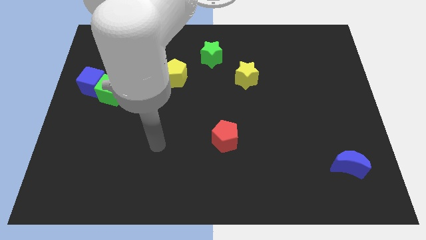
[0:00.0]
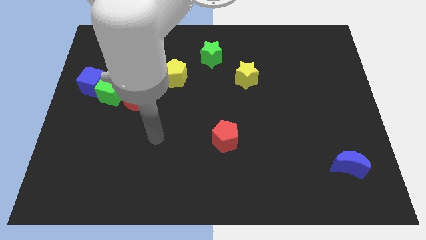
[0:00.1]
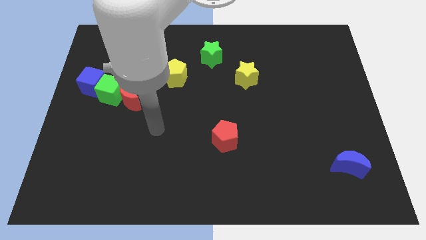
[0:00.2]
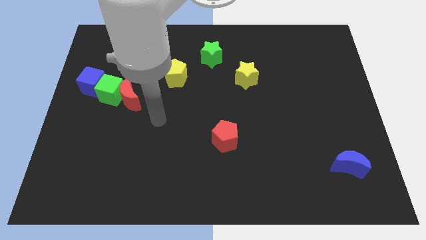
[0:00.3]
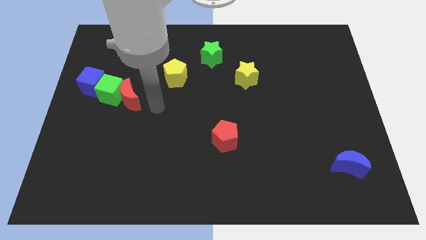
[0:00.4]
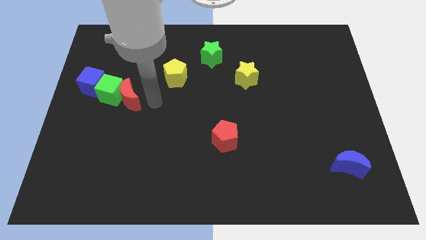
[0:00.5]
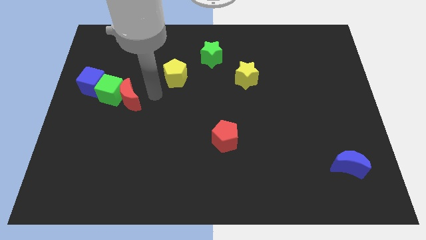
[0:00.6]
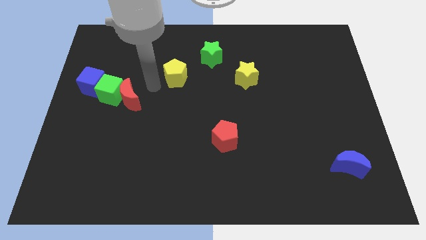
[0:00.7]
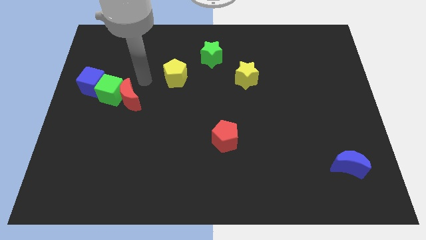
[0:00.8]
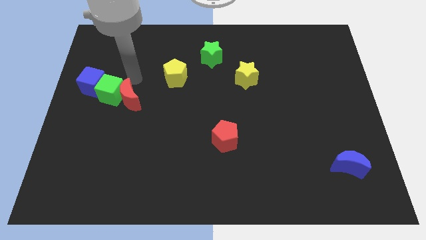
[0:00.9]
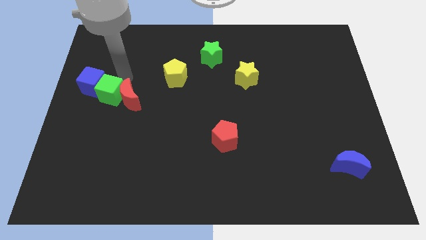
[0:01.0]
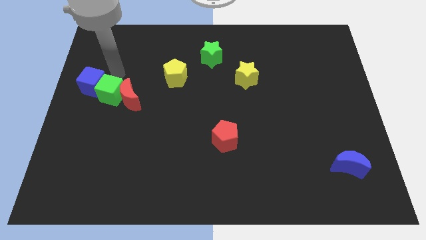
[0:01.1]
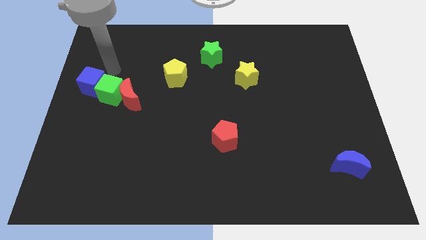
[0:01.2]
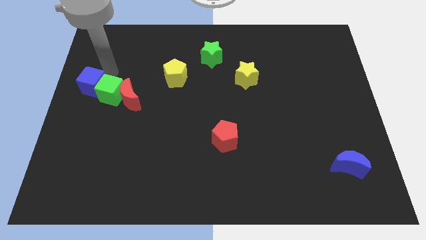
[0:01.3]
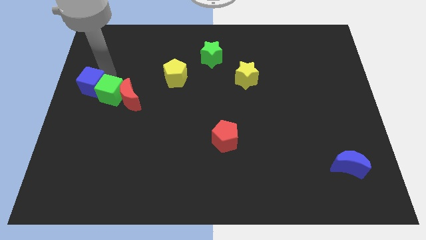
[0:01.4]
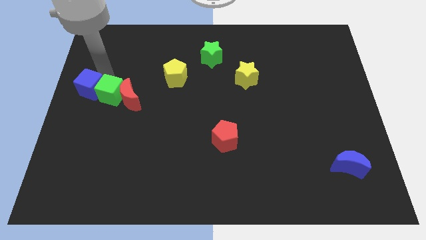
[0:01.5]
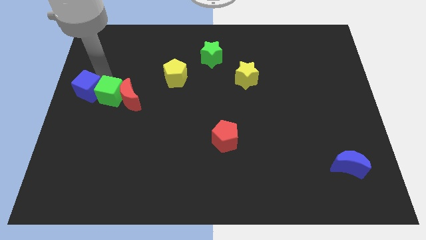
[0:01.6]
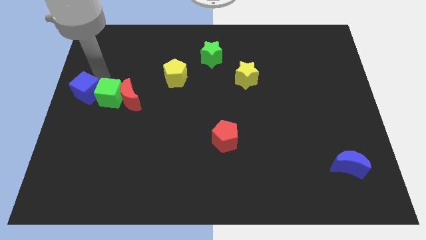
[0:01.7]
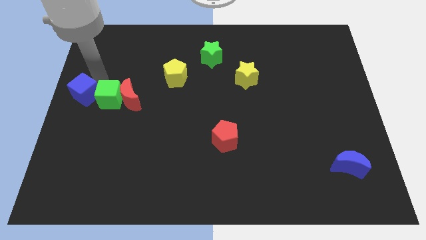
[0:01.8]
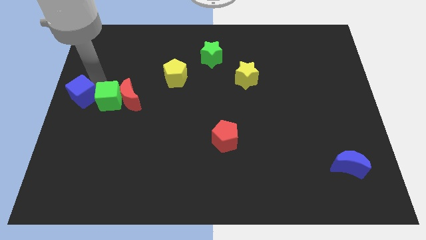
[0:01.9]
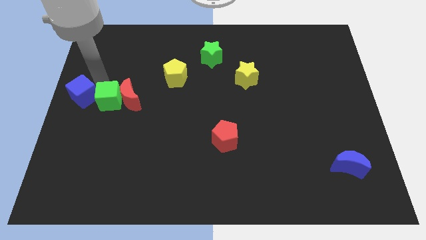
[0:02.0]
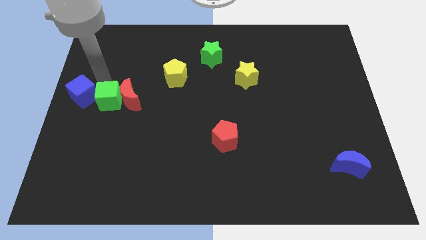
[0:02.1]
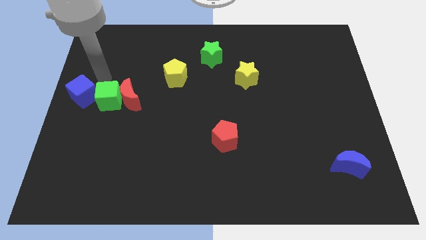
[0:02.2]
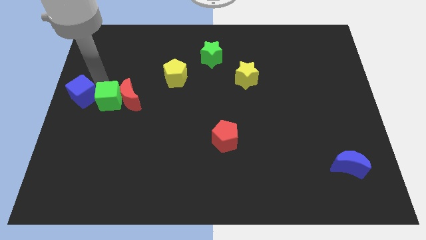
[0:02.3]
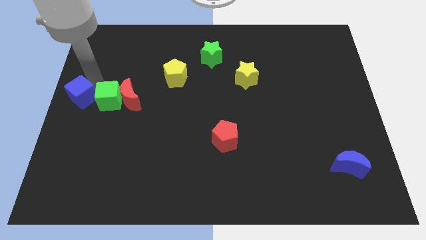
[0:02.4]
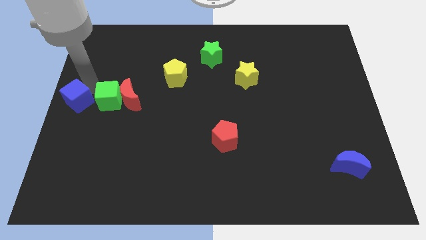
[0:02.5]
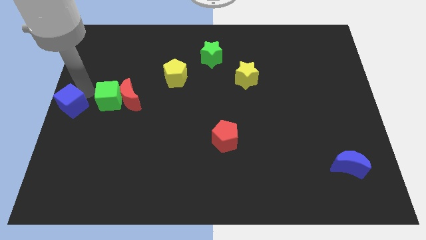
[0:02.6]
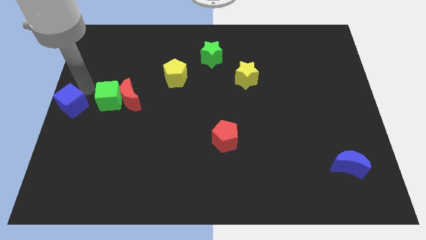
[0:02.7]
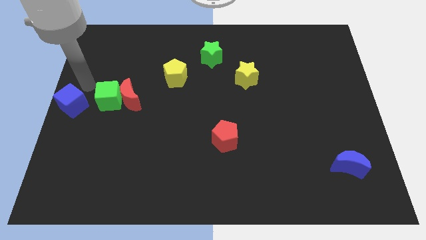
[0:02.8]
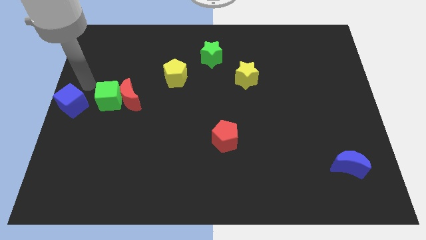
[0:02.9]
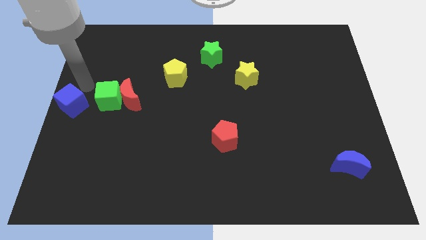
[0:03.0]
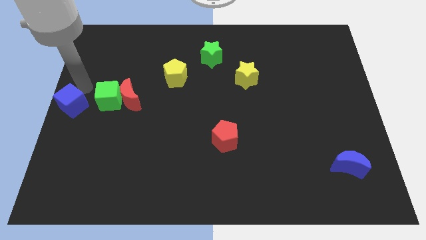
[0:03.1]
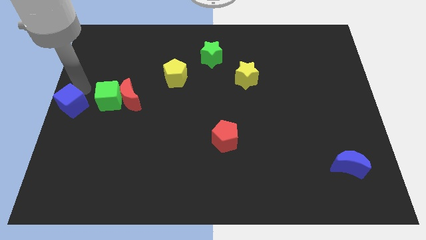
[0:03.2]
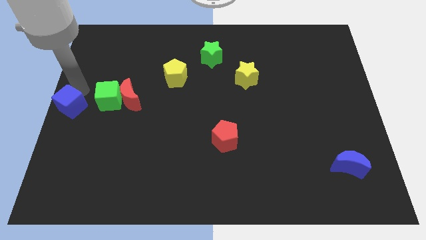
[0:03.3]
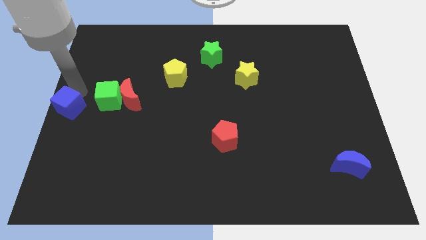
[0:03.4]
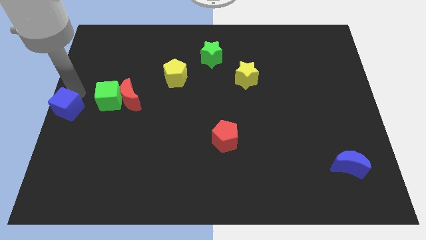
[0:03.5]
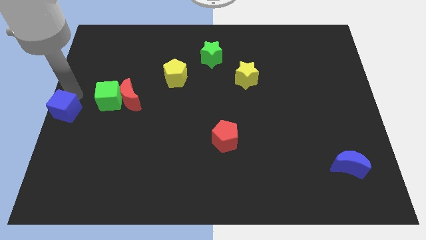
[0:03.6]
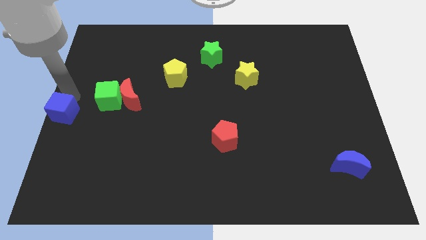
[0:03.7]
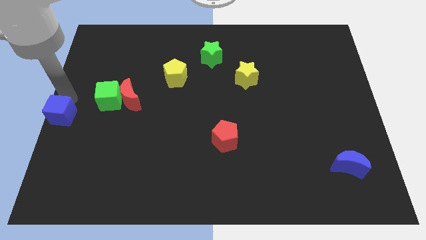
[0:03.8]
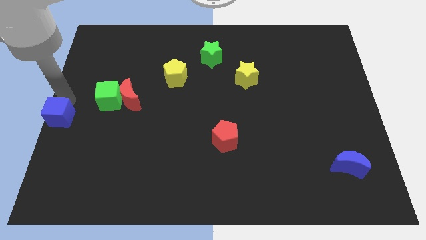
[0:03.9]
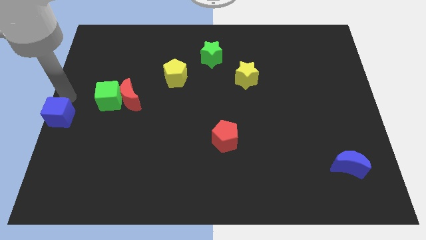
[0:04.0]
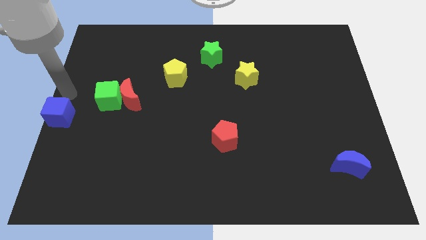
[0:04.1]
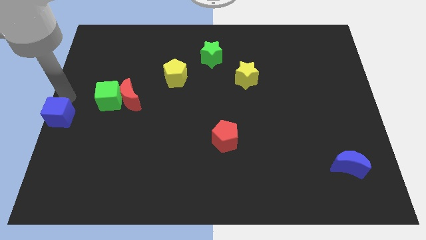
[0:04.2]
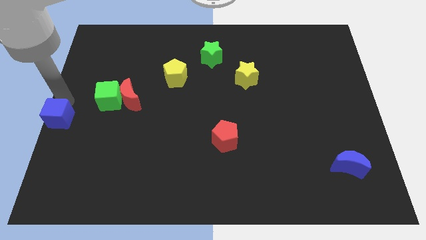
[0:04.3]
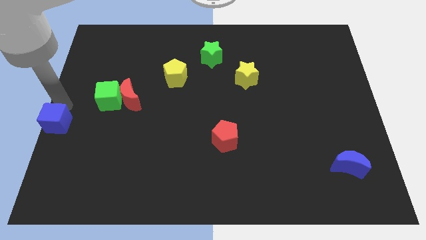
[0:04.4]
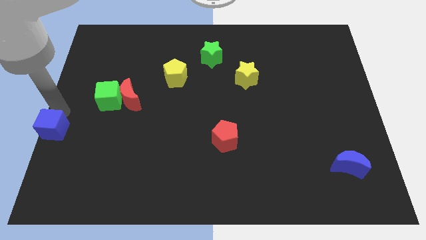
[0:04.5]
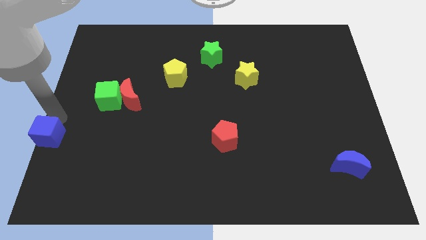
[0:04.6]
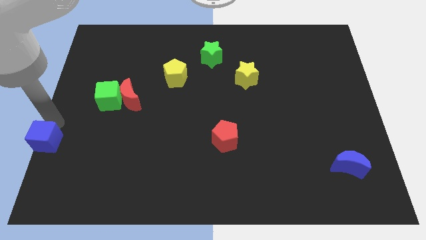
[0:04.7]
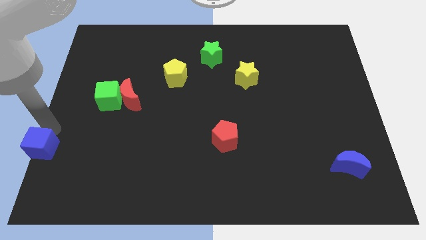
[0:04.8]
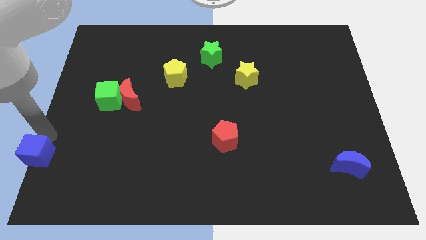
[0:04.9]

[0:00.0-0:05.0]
put the blue cube to the bottom left corner

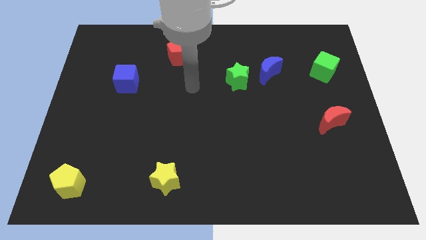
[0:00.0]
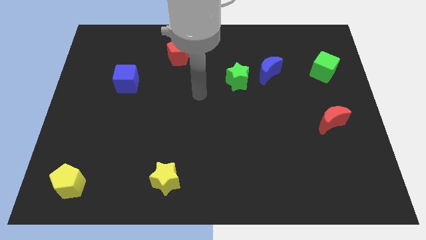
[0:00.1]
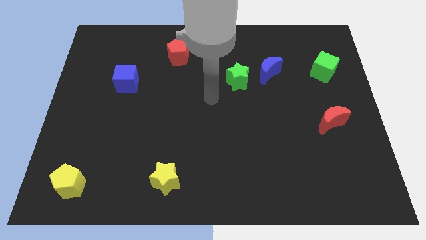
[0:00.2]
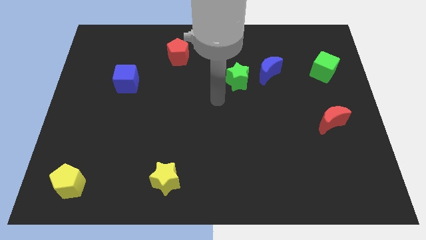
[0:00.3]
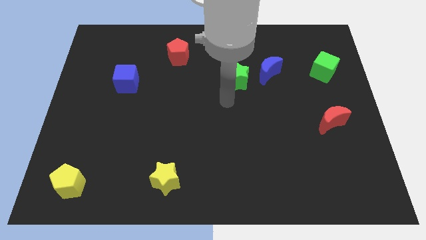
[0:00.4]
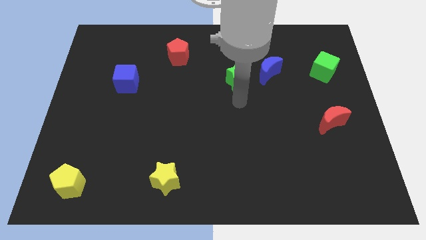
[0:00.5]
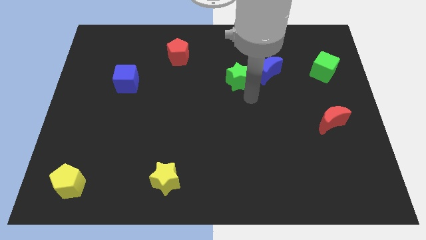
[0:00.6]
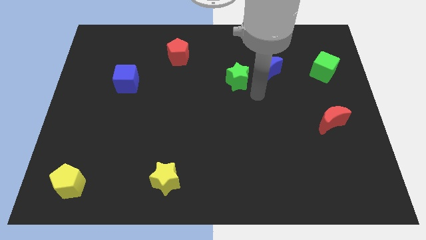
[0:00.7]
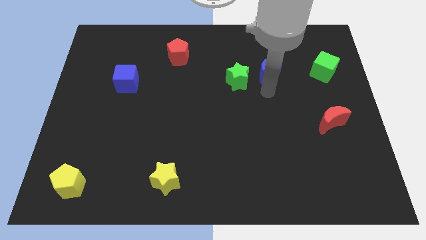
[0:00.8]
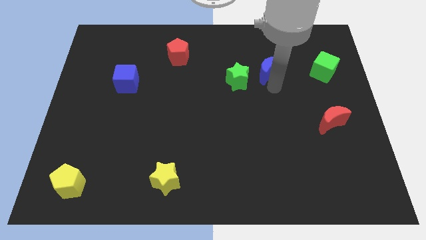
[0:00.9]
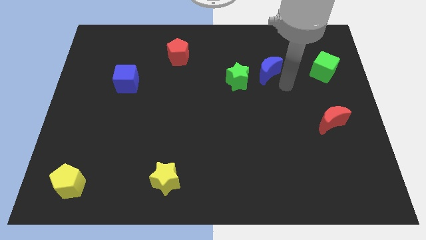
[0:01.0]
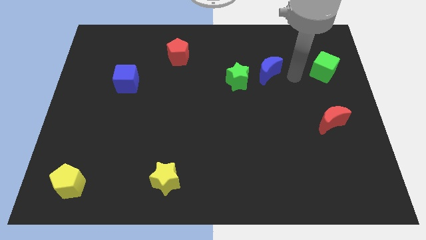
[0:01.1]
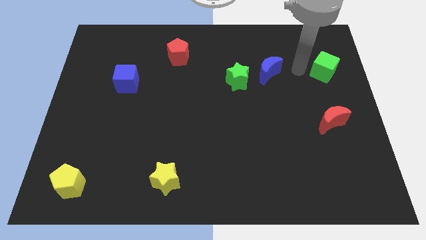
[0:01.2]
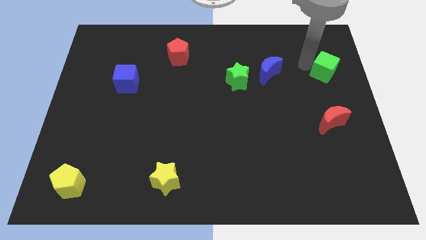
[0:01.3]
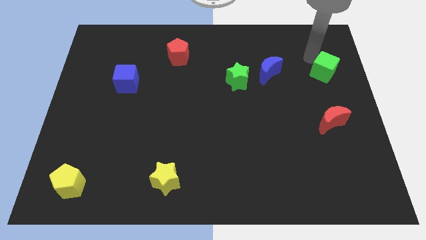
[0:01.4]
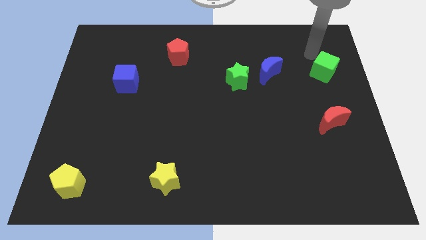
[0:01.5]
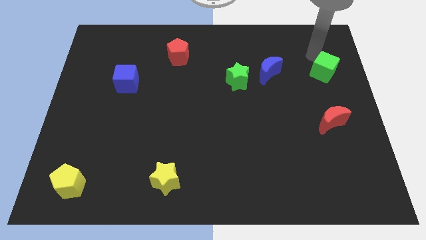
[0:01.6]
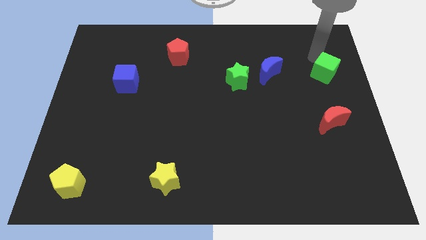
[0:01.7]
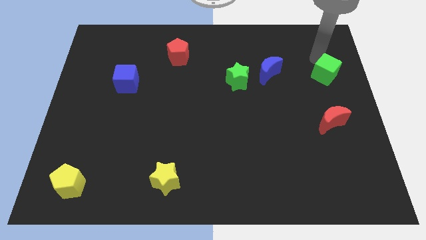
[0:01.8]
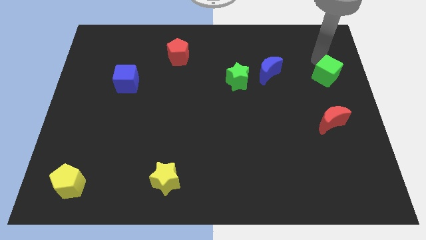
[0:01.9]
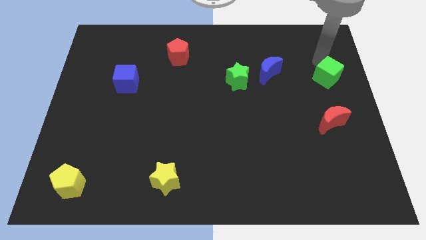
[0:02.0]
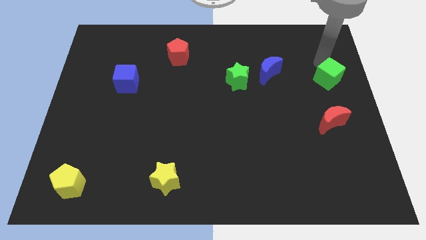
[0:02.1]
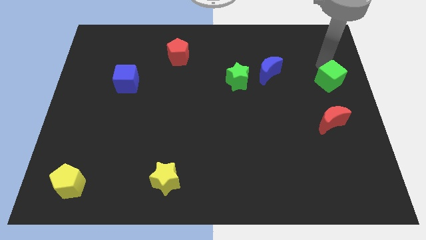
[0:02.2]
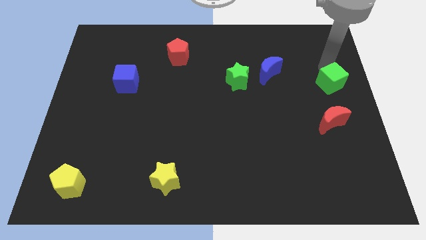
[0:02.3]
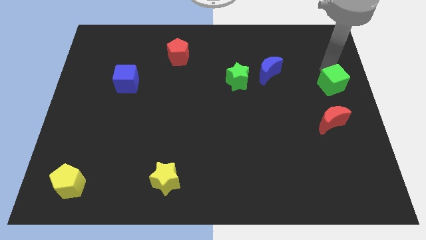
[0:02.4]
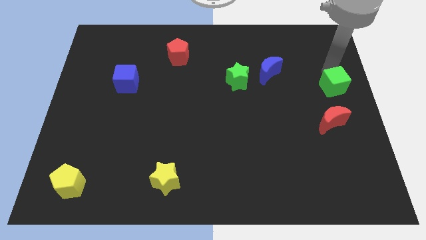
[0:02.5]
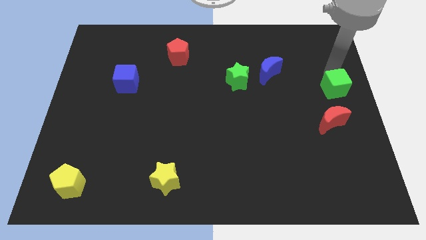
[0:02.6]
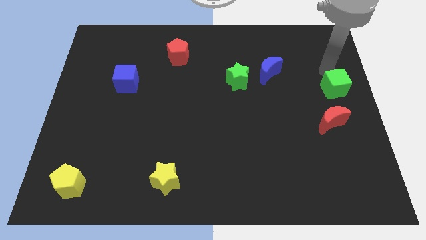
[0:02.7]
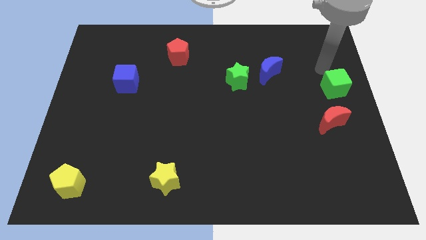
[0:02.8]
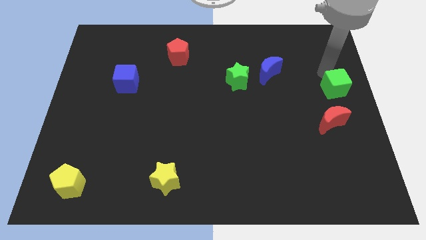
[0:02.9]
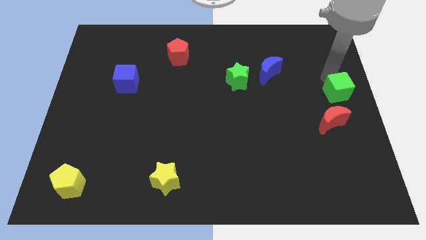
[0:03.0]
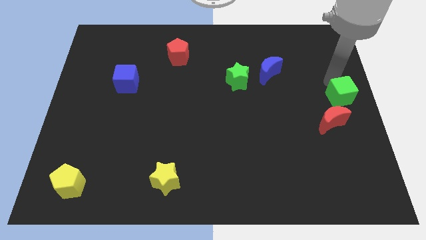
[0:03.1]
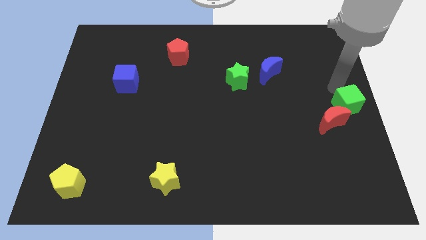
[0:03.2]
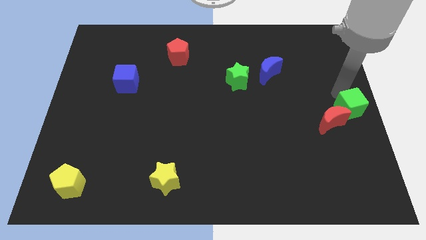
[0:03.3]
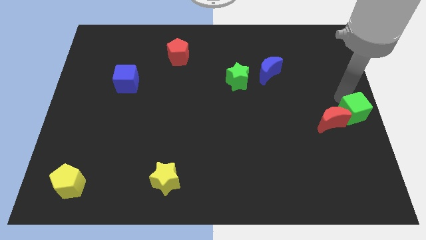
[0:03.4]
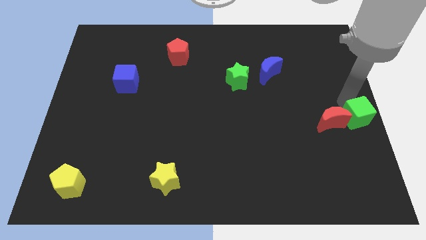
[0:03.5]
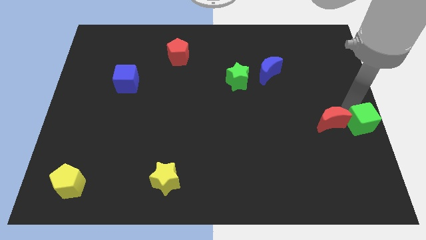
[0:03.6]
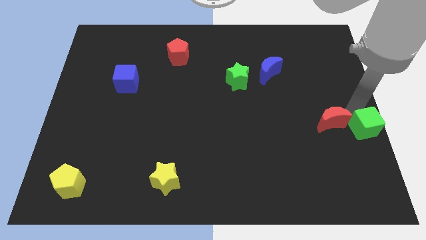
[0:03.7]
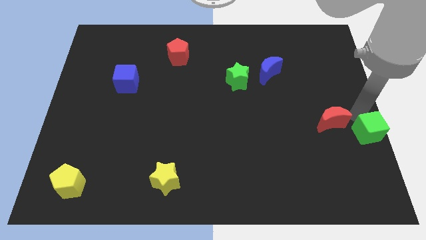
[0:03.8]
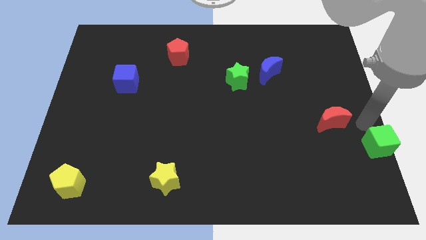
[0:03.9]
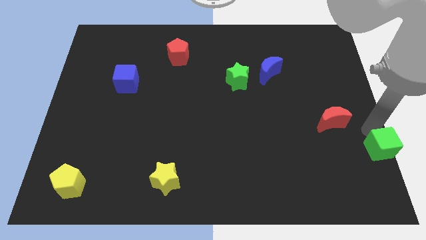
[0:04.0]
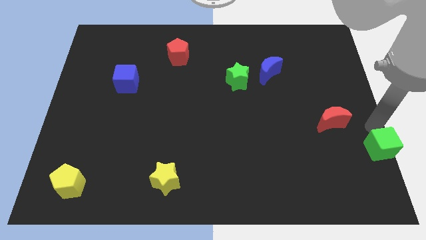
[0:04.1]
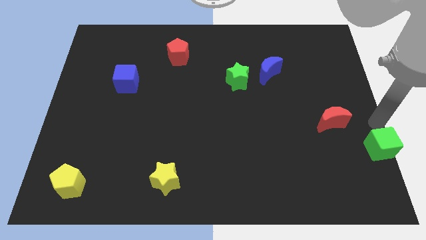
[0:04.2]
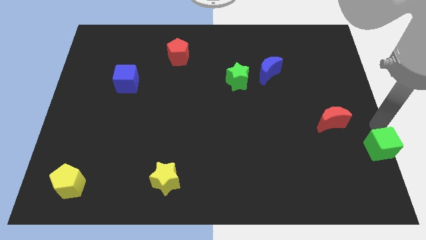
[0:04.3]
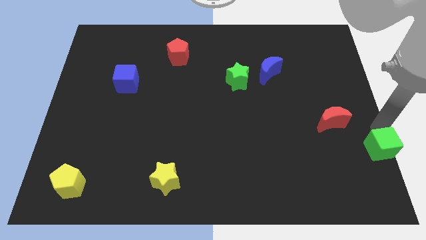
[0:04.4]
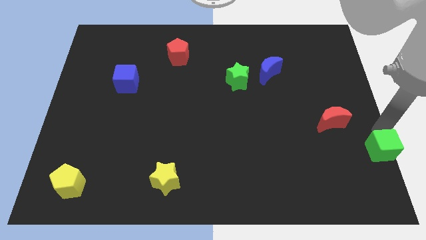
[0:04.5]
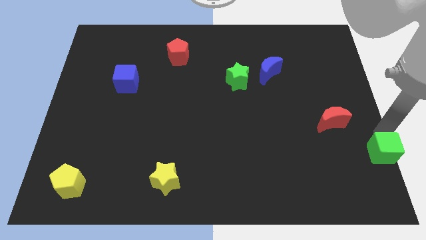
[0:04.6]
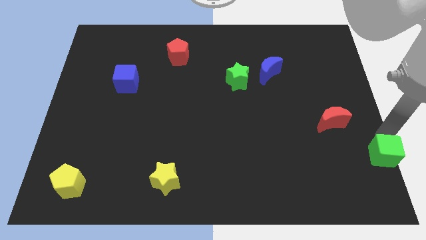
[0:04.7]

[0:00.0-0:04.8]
move the green cube to the bottom right
